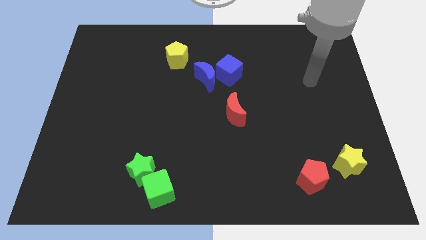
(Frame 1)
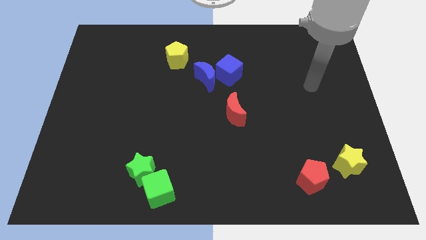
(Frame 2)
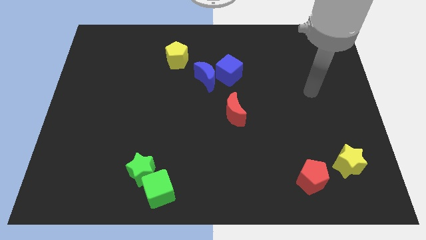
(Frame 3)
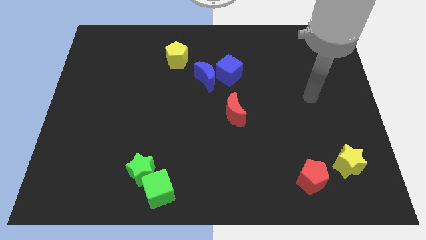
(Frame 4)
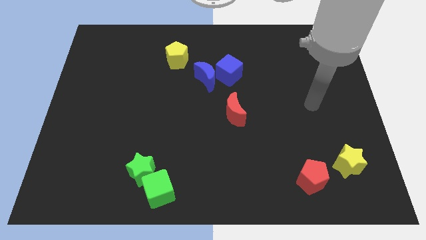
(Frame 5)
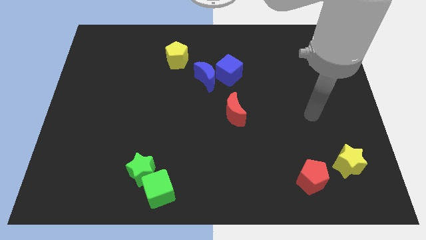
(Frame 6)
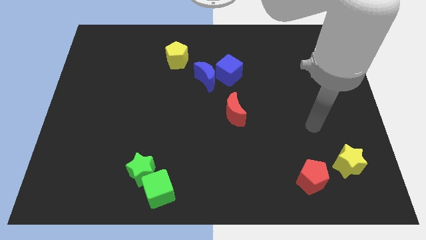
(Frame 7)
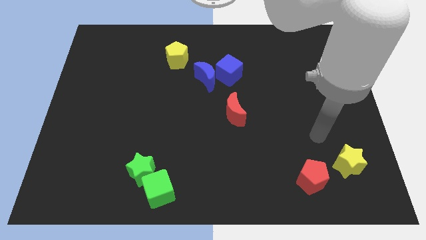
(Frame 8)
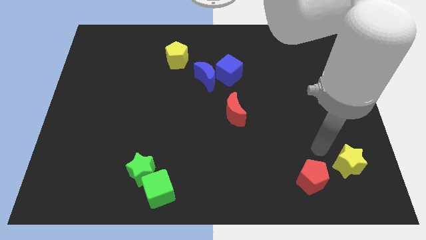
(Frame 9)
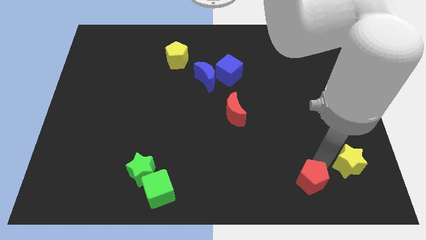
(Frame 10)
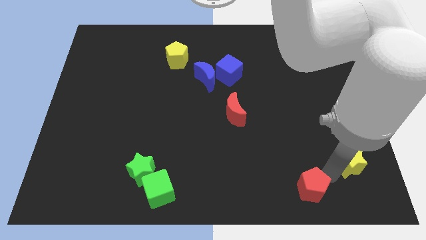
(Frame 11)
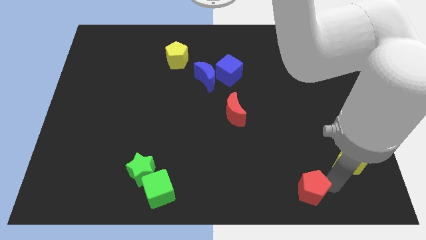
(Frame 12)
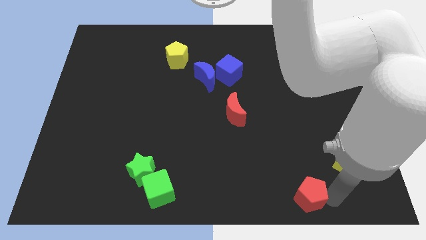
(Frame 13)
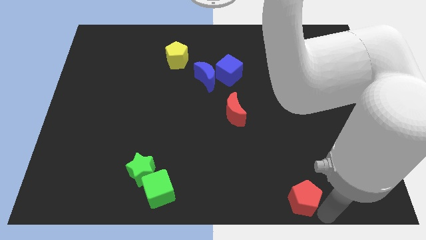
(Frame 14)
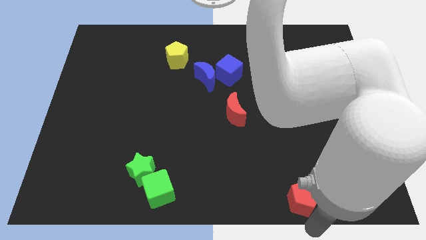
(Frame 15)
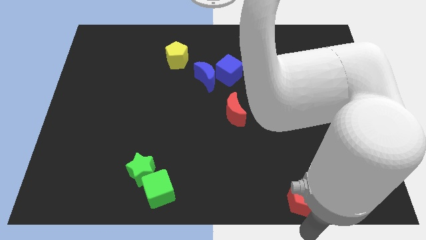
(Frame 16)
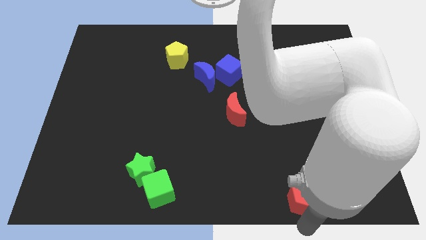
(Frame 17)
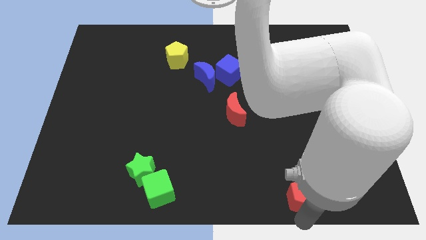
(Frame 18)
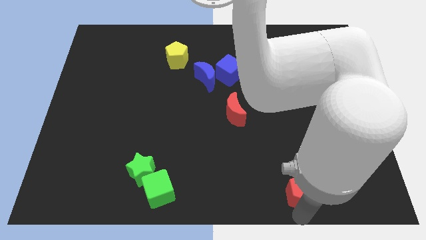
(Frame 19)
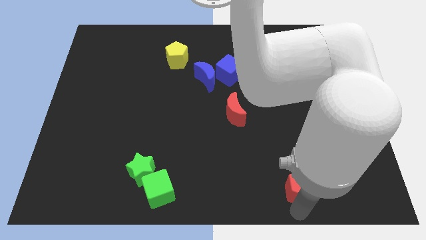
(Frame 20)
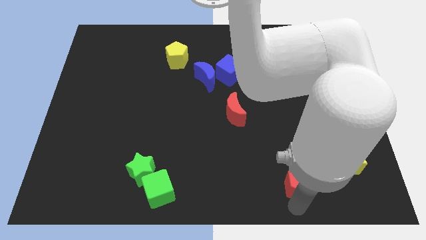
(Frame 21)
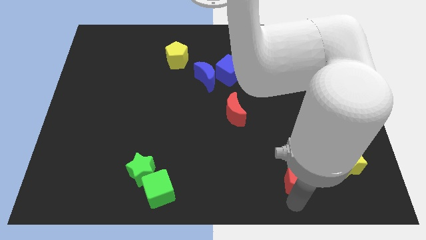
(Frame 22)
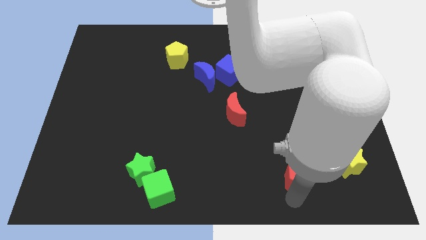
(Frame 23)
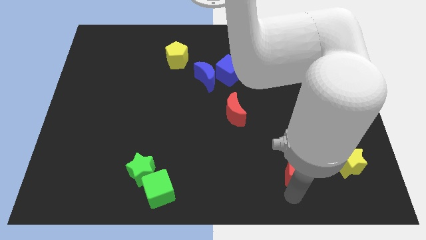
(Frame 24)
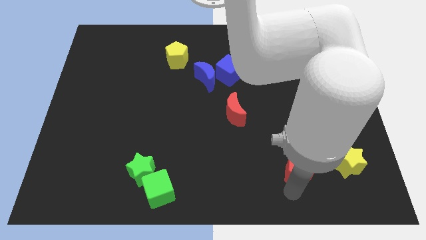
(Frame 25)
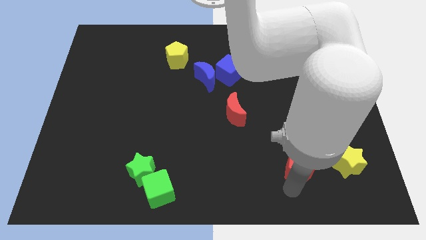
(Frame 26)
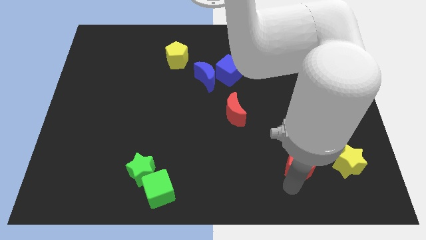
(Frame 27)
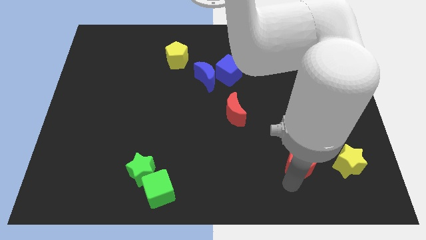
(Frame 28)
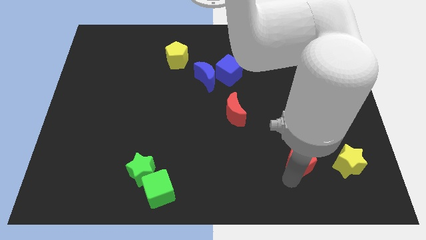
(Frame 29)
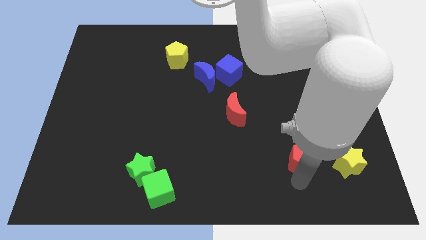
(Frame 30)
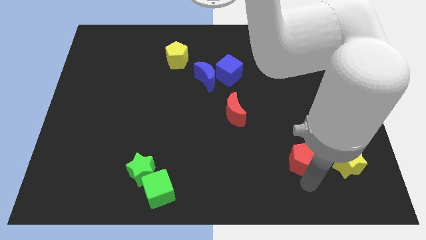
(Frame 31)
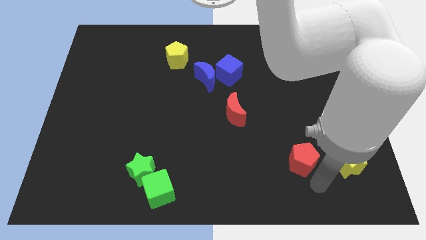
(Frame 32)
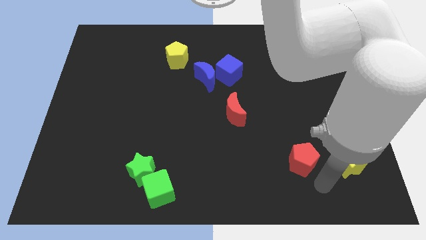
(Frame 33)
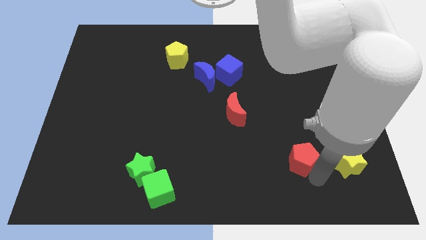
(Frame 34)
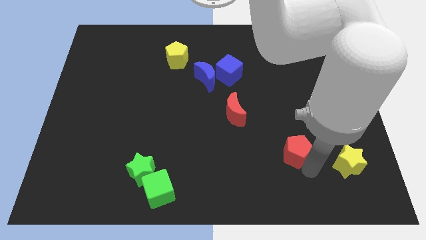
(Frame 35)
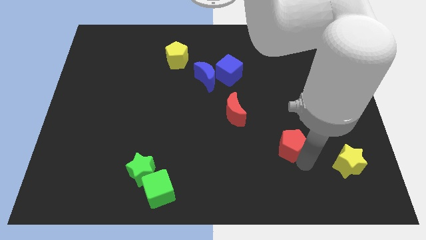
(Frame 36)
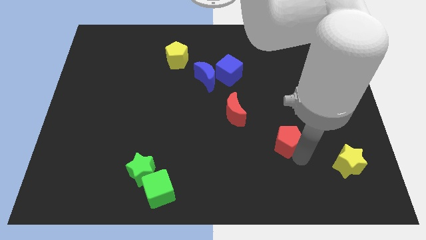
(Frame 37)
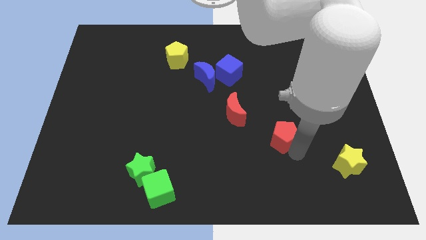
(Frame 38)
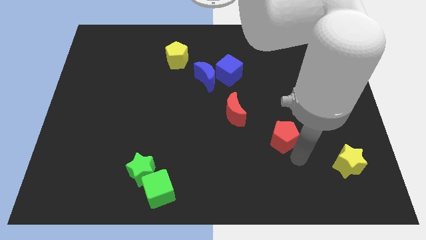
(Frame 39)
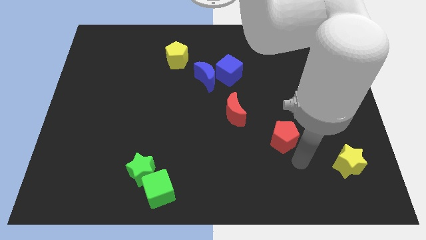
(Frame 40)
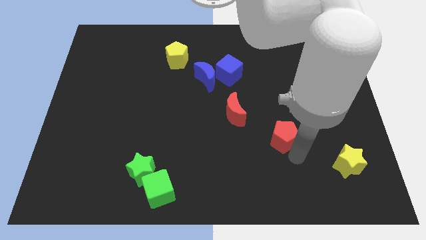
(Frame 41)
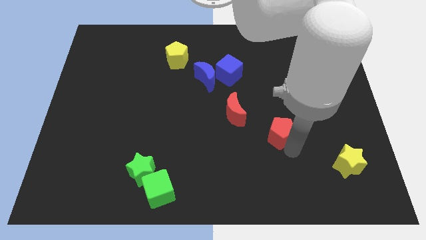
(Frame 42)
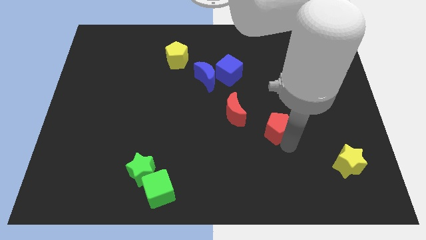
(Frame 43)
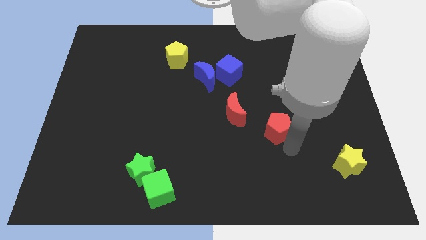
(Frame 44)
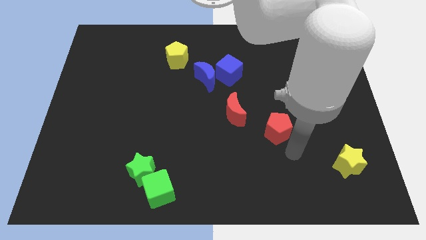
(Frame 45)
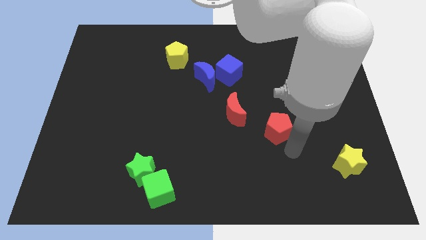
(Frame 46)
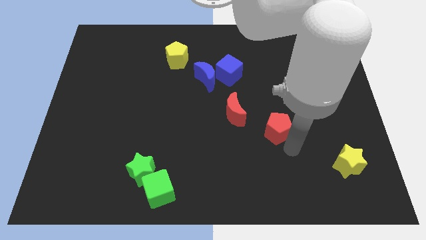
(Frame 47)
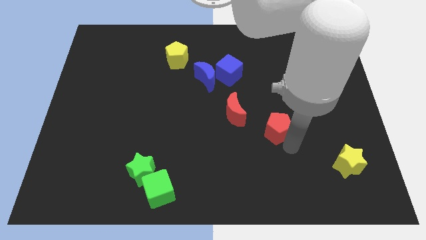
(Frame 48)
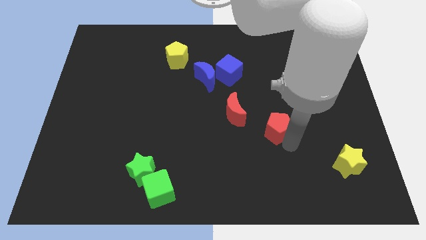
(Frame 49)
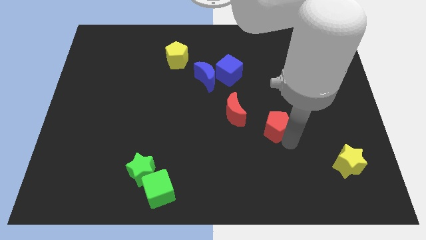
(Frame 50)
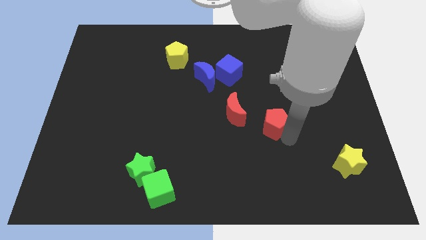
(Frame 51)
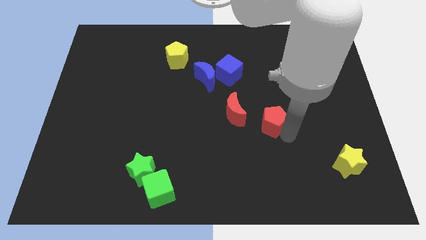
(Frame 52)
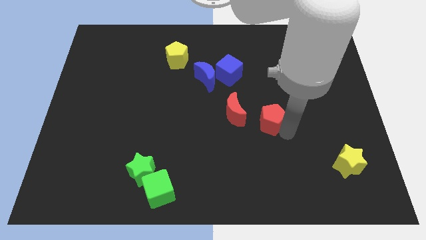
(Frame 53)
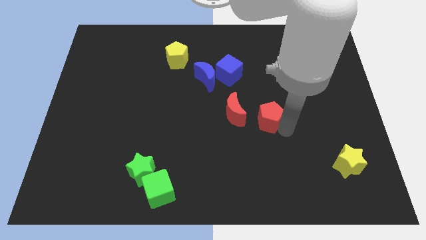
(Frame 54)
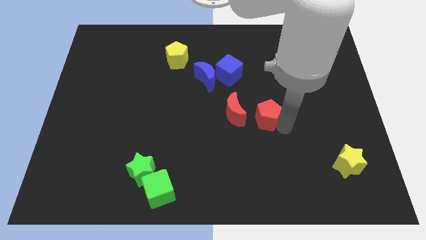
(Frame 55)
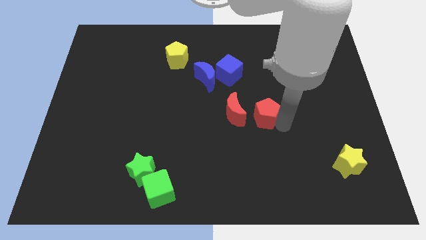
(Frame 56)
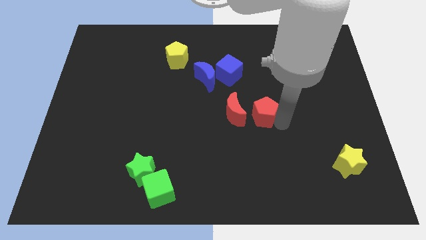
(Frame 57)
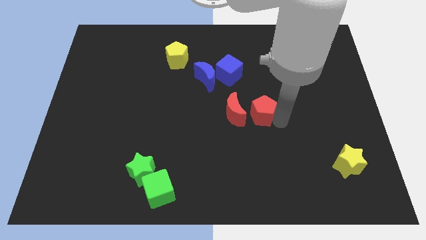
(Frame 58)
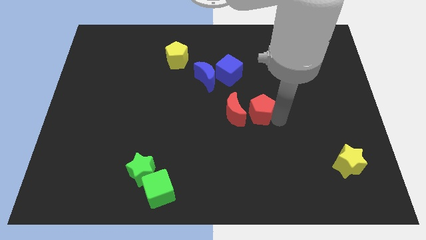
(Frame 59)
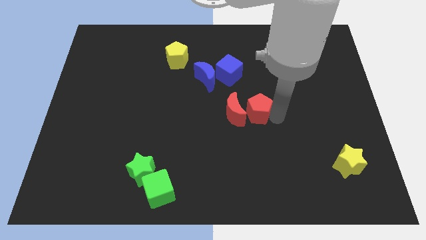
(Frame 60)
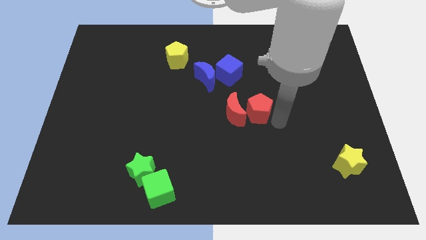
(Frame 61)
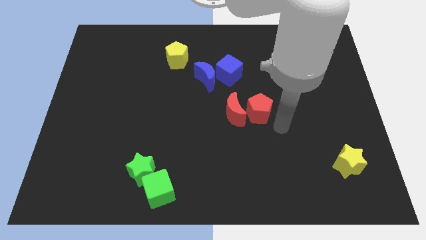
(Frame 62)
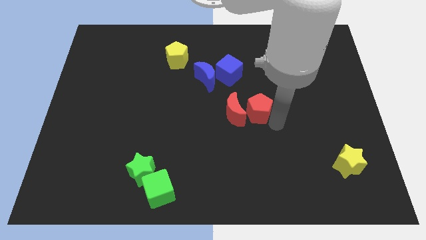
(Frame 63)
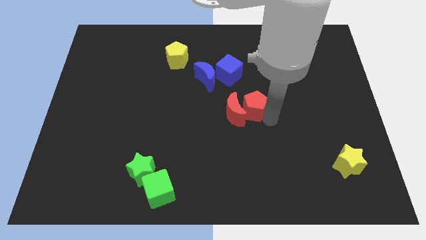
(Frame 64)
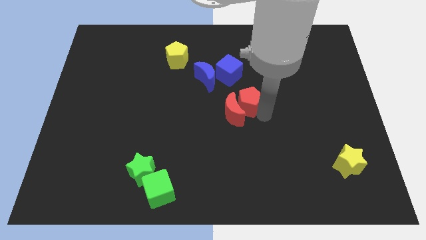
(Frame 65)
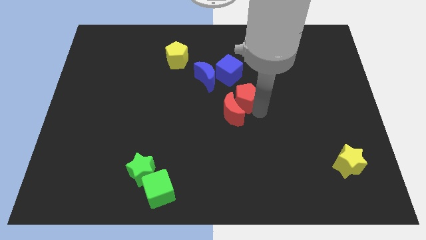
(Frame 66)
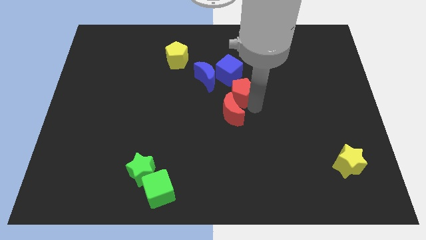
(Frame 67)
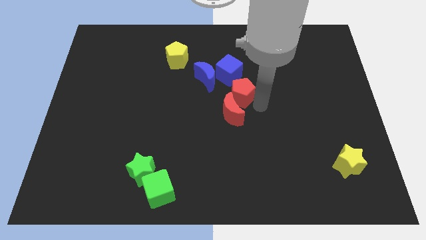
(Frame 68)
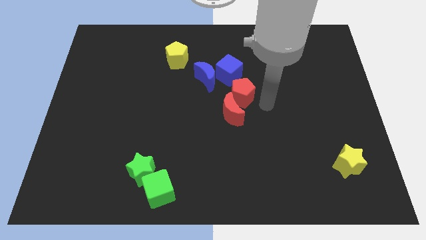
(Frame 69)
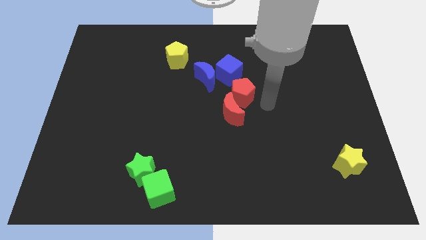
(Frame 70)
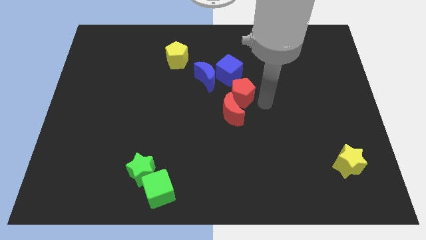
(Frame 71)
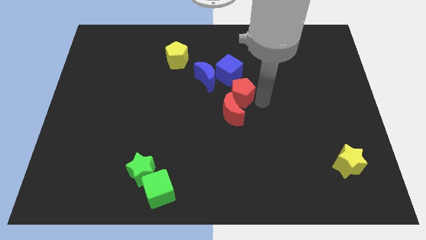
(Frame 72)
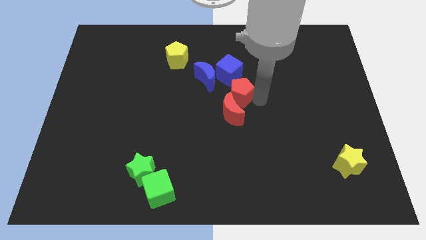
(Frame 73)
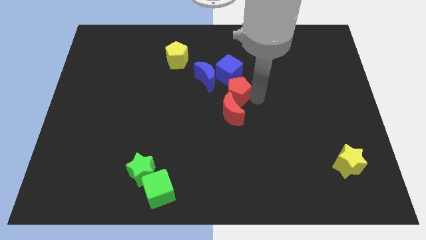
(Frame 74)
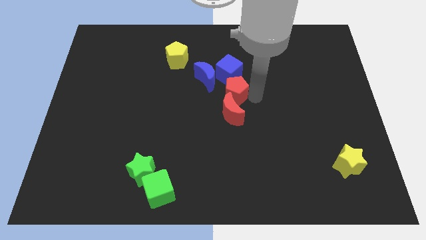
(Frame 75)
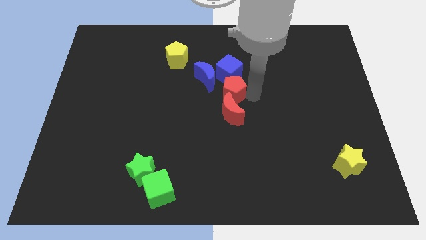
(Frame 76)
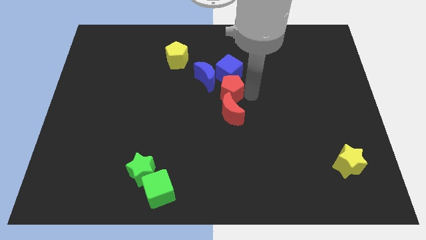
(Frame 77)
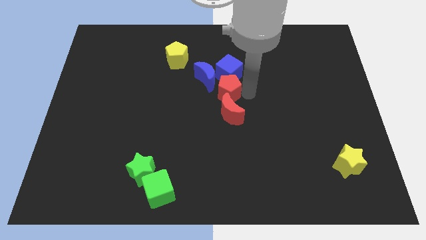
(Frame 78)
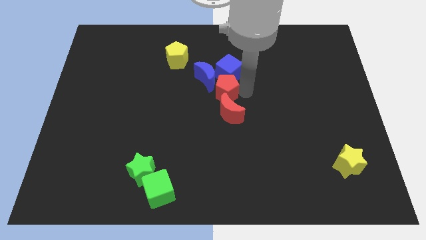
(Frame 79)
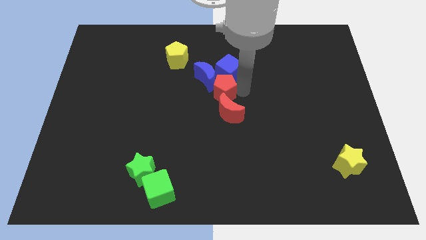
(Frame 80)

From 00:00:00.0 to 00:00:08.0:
push the red pentagon to the blue moon
